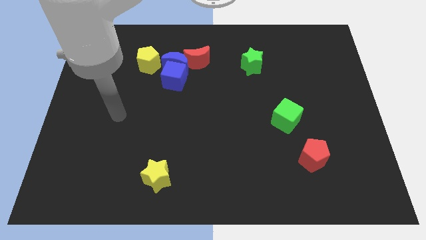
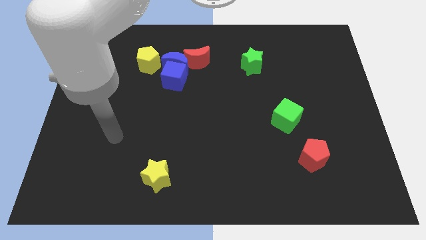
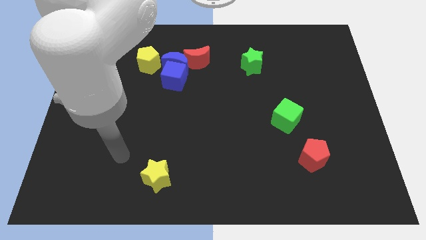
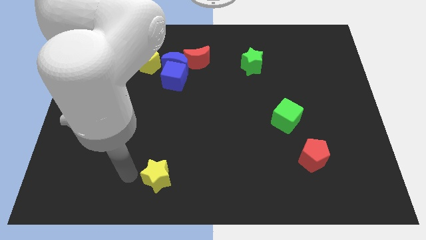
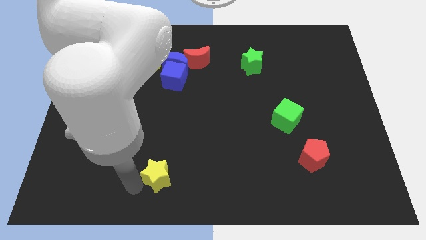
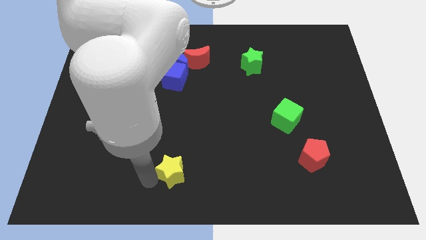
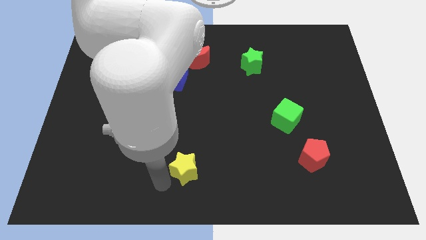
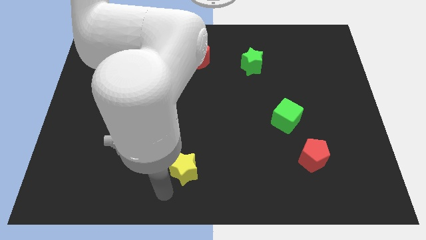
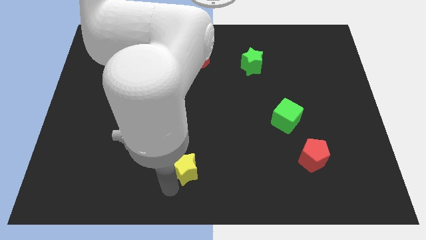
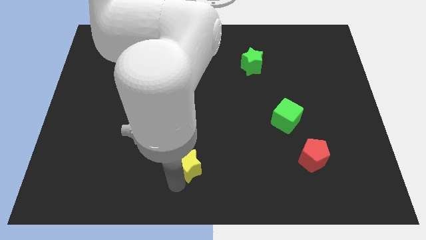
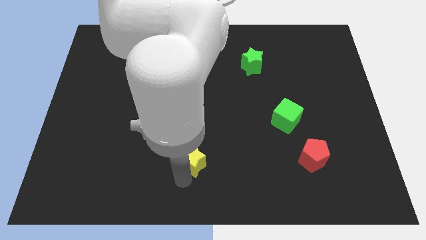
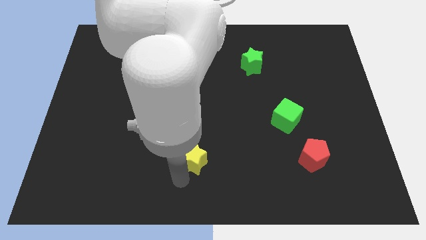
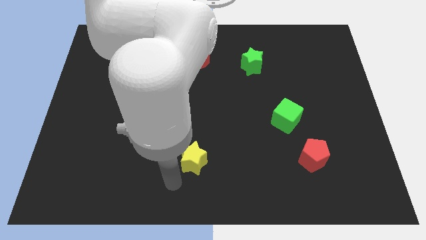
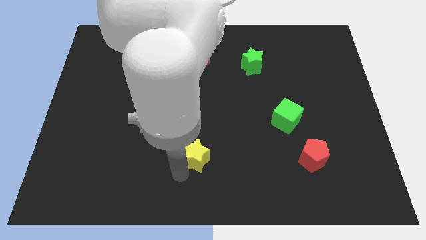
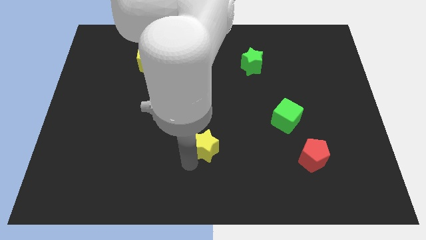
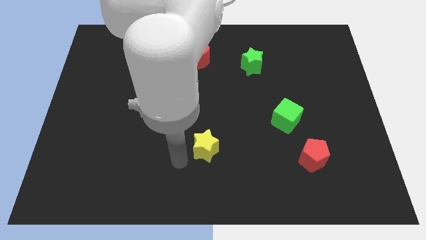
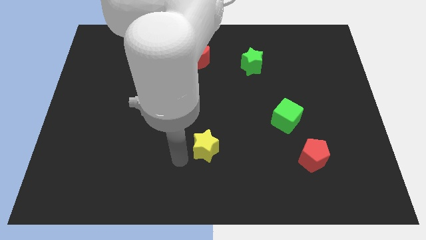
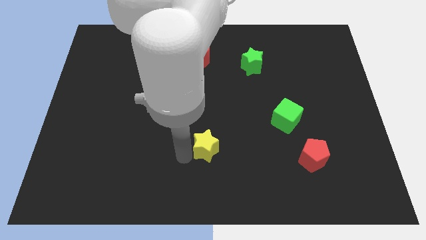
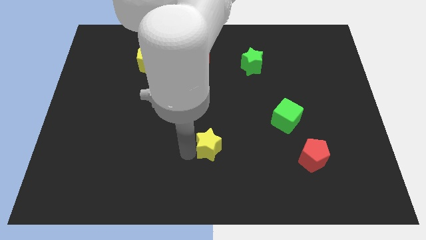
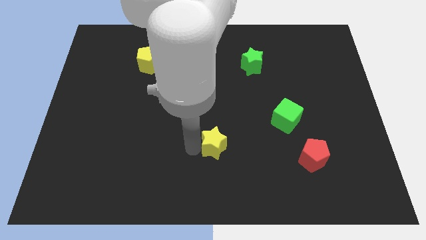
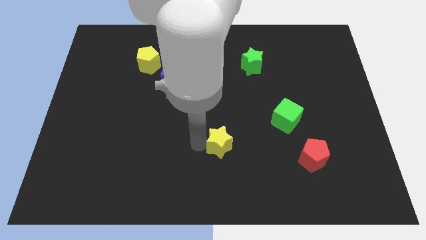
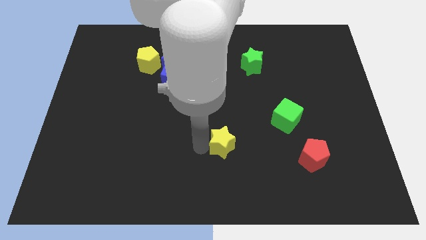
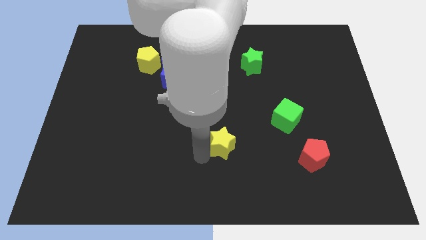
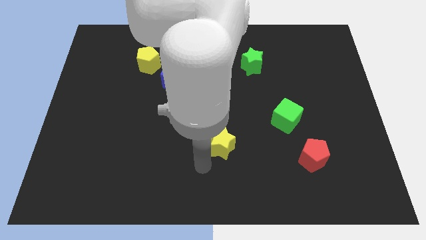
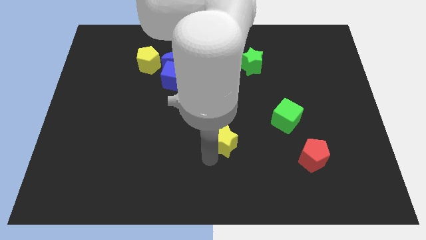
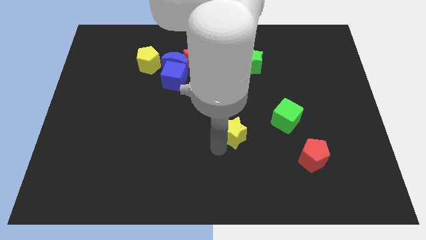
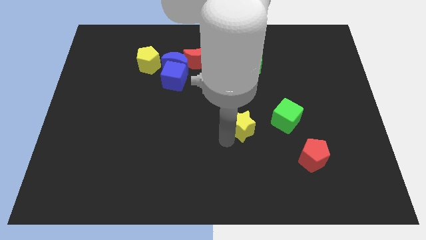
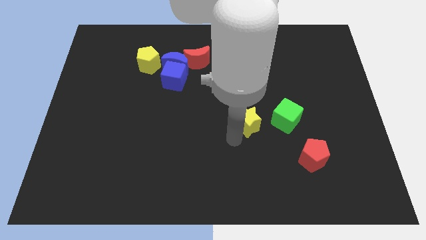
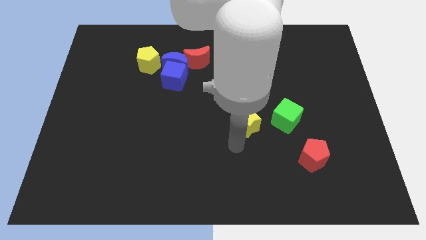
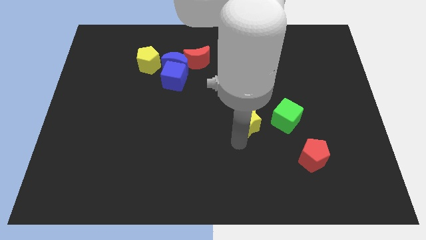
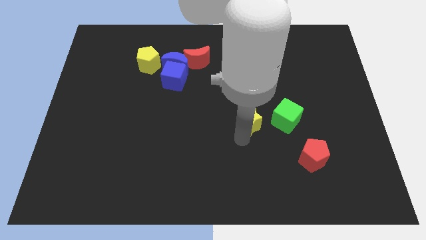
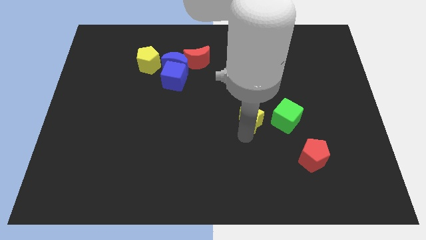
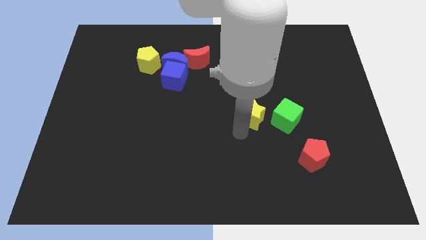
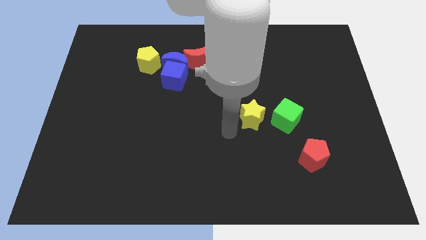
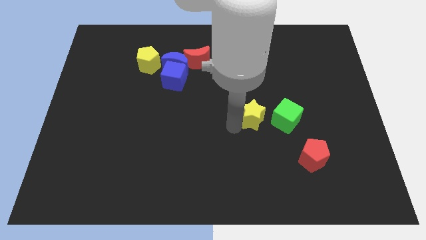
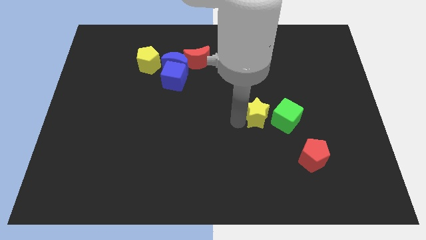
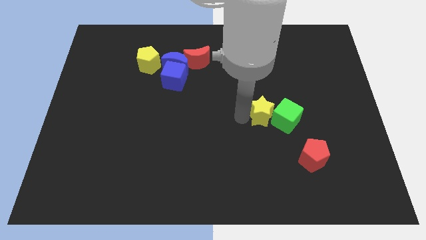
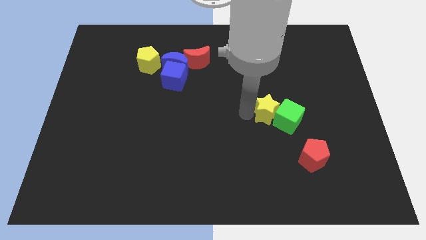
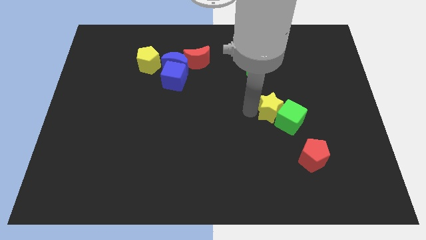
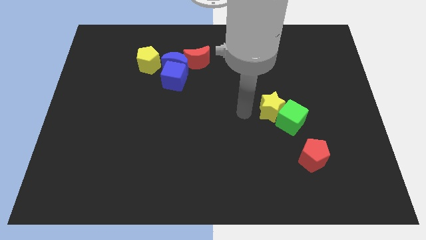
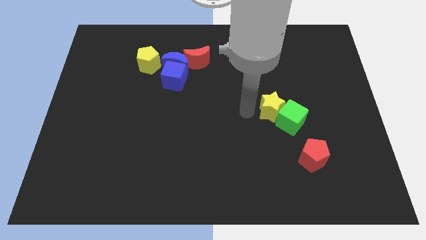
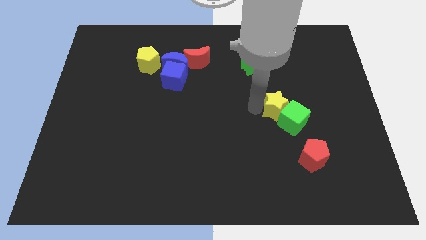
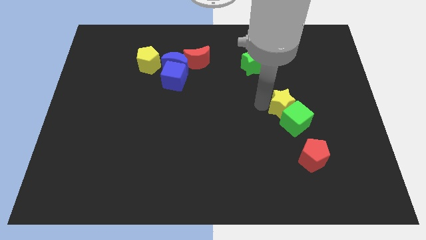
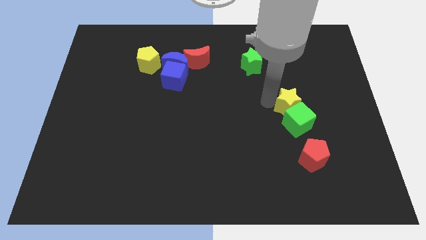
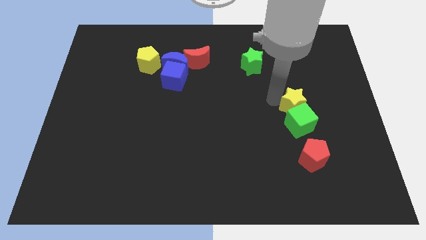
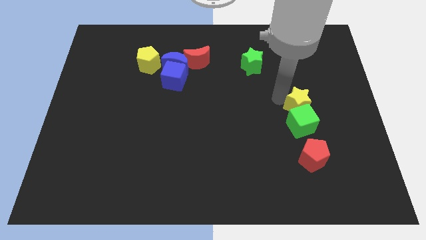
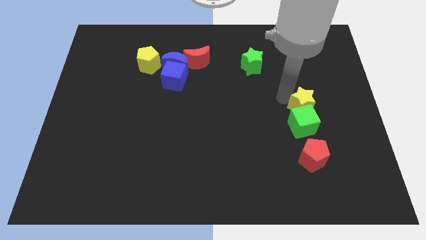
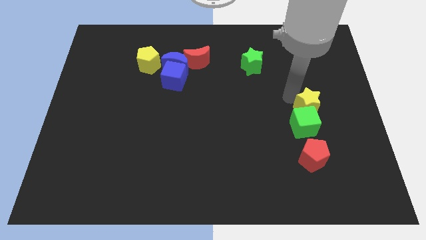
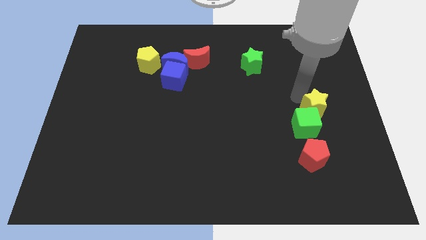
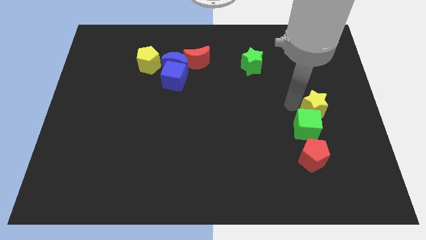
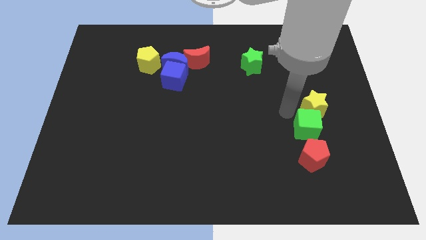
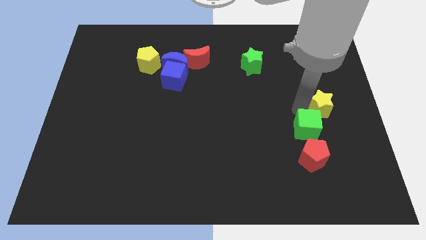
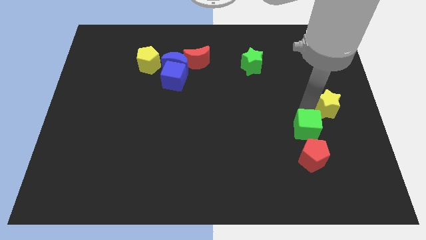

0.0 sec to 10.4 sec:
slide the yellow star to the center right
